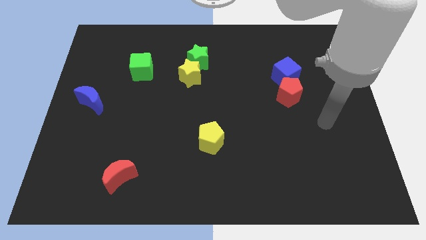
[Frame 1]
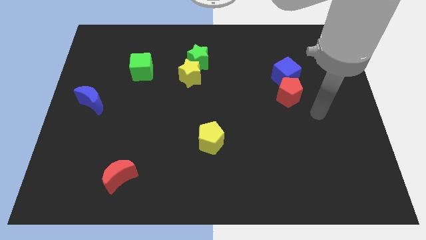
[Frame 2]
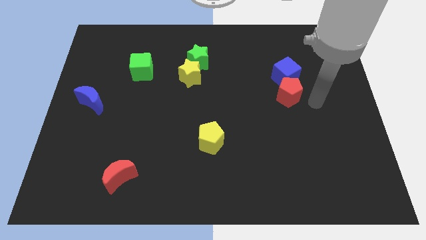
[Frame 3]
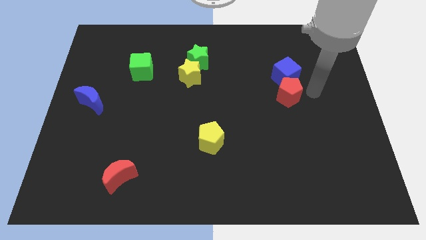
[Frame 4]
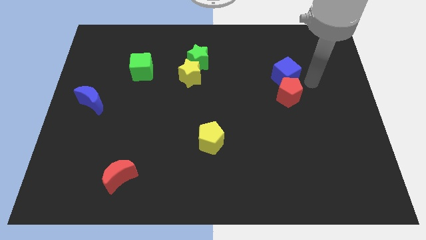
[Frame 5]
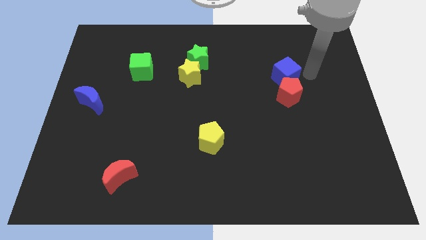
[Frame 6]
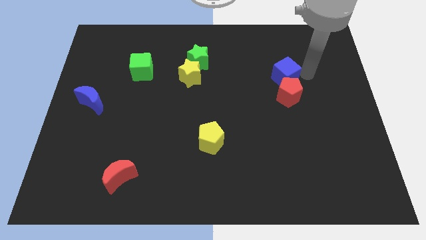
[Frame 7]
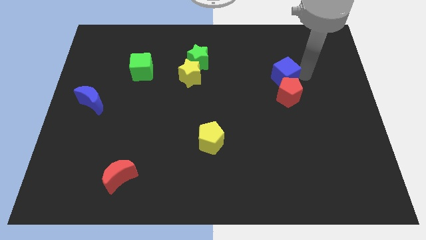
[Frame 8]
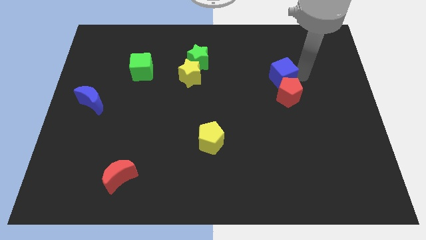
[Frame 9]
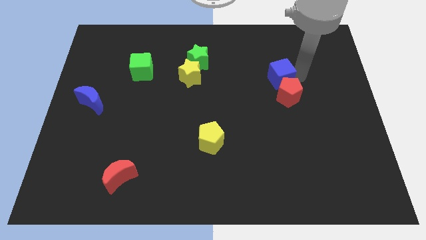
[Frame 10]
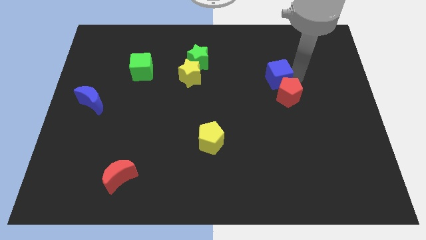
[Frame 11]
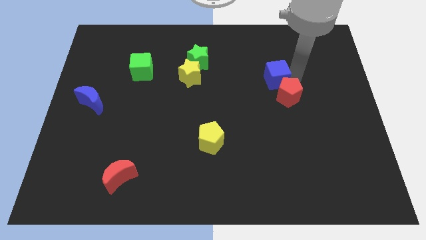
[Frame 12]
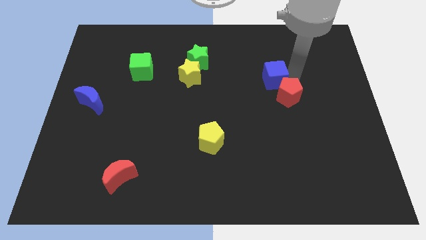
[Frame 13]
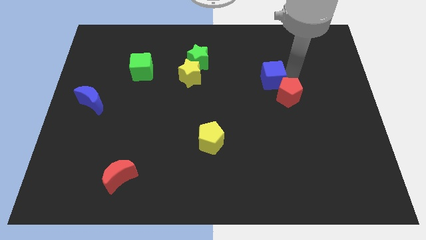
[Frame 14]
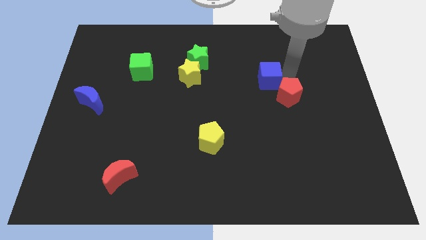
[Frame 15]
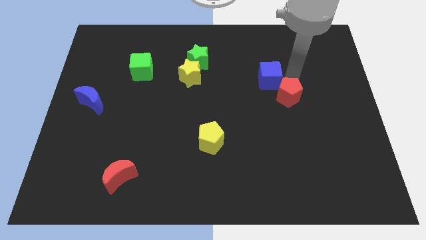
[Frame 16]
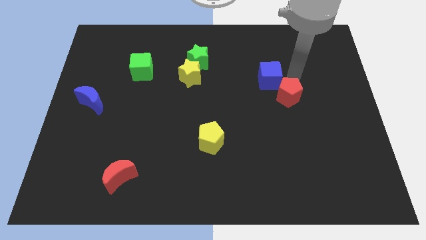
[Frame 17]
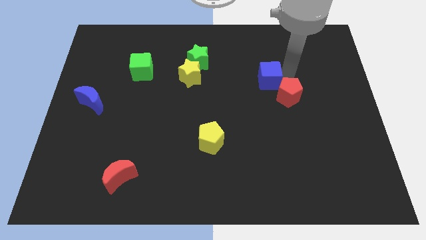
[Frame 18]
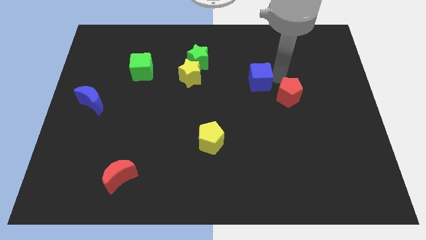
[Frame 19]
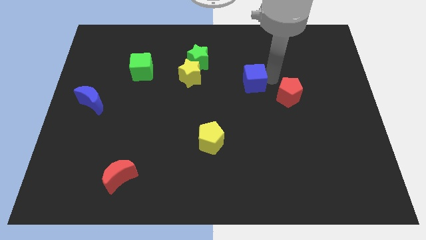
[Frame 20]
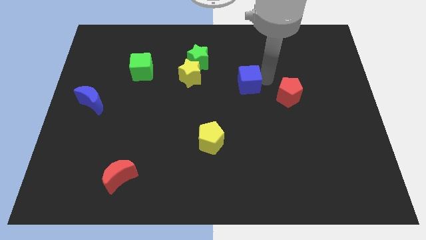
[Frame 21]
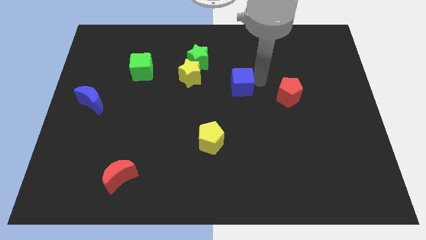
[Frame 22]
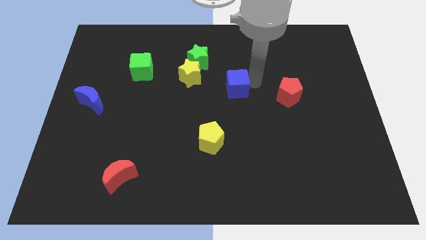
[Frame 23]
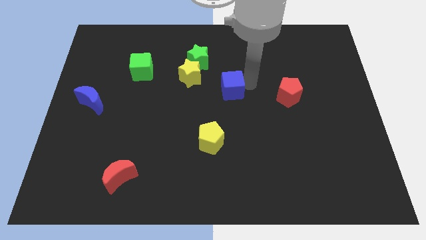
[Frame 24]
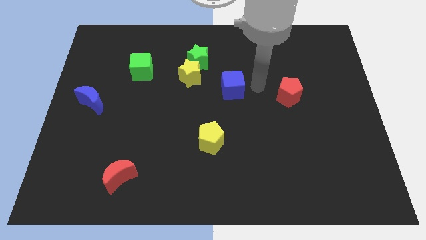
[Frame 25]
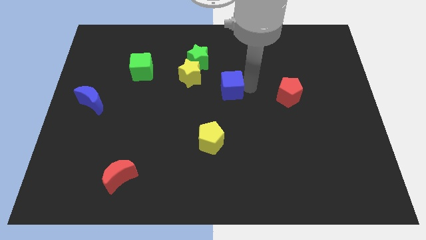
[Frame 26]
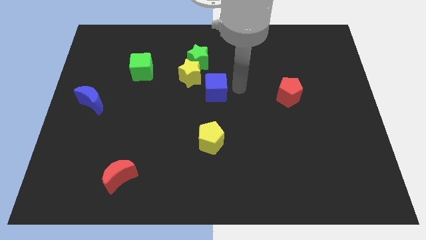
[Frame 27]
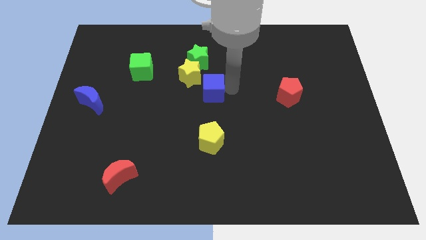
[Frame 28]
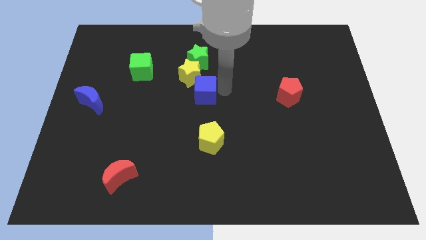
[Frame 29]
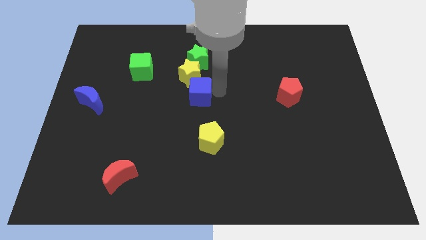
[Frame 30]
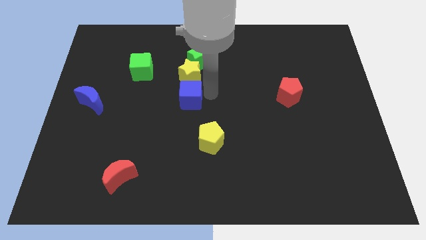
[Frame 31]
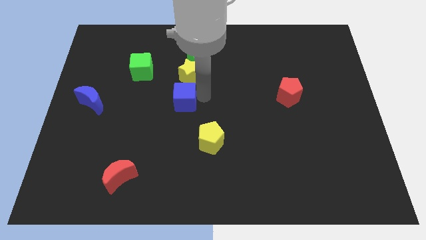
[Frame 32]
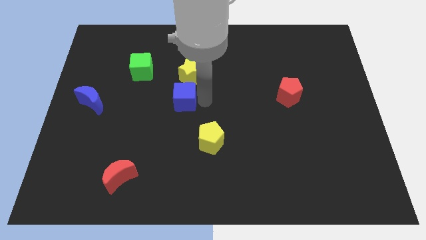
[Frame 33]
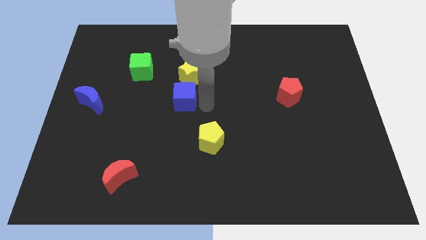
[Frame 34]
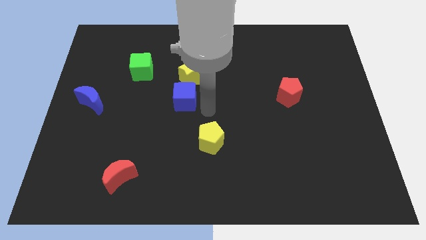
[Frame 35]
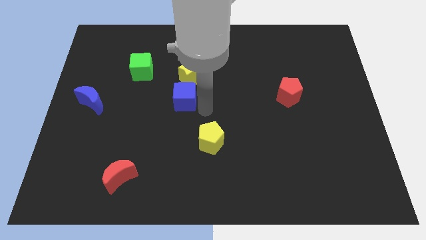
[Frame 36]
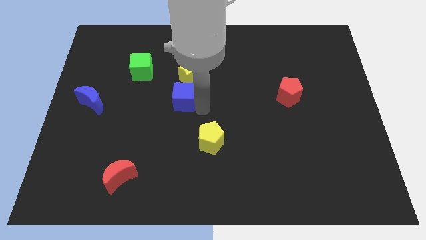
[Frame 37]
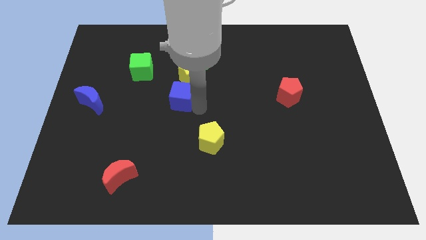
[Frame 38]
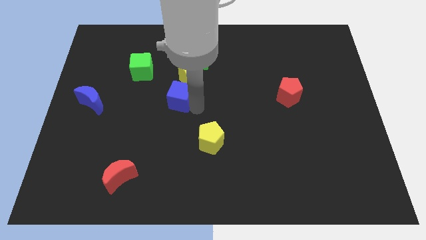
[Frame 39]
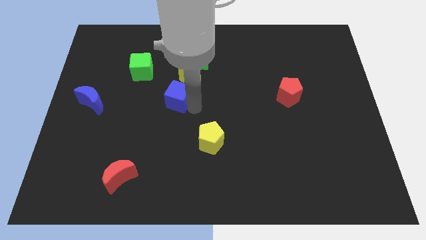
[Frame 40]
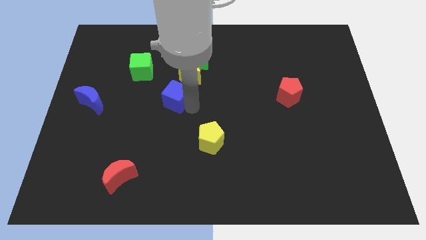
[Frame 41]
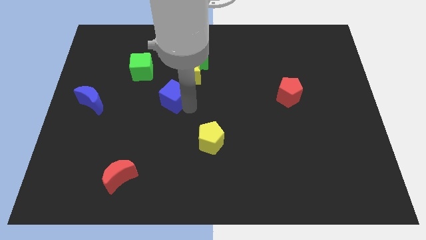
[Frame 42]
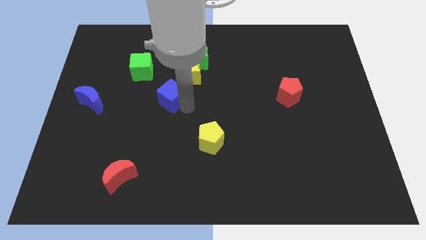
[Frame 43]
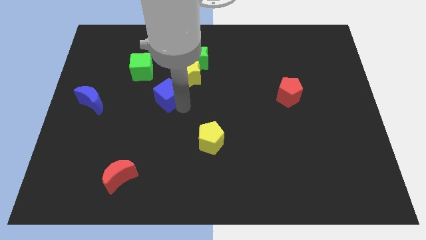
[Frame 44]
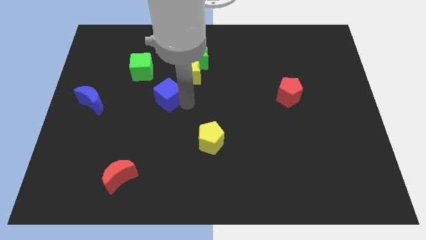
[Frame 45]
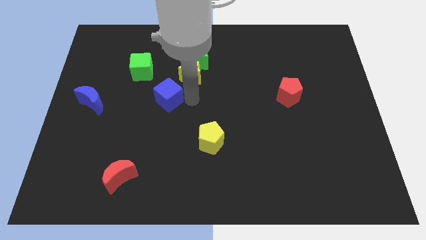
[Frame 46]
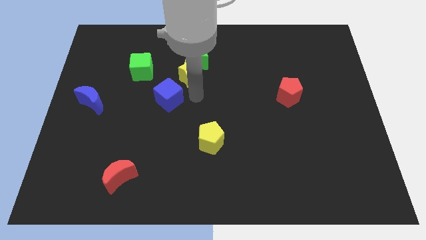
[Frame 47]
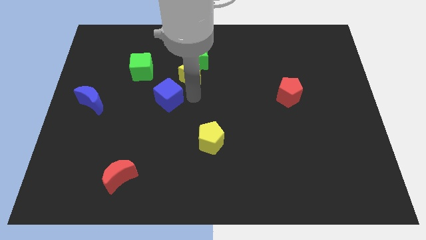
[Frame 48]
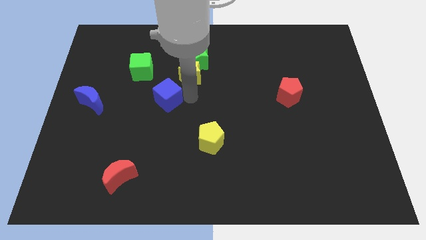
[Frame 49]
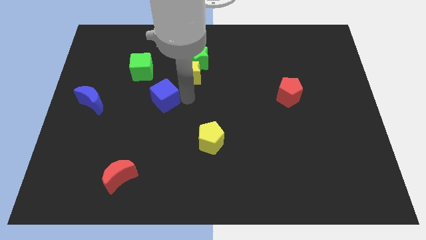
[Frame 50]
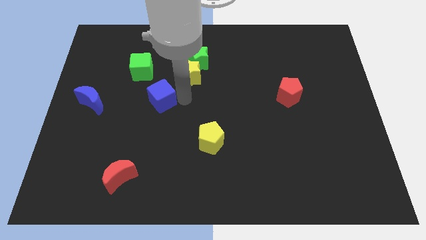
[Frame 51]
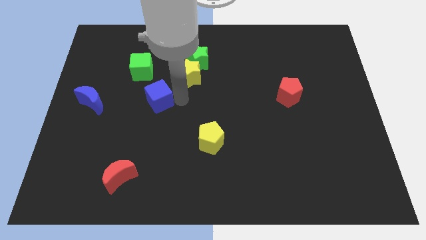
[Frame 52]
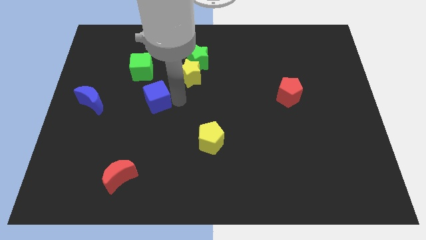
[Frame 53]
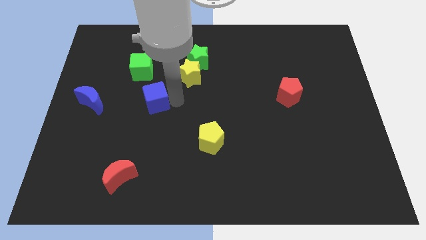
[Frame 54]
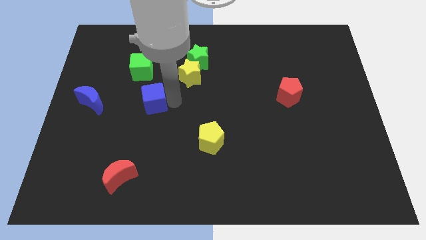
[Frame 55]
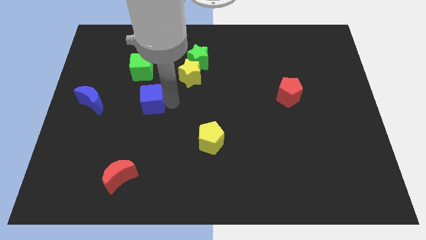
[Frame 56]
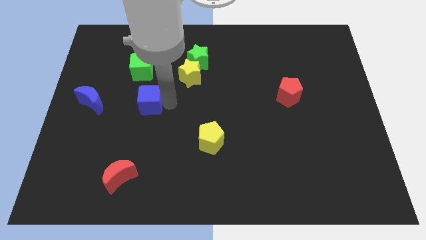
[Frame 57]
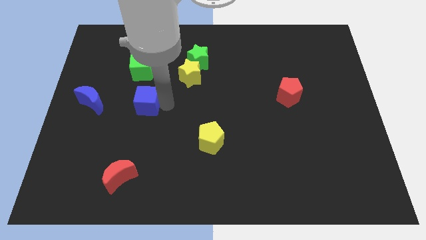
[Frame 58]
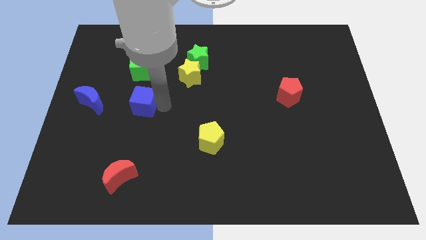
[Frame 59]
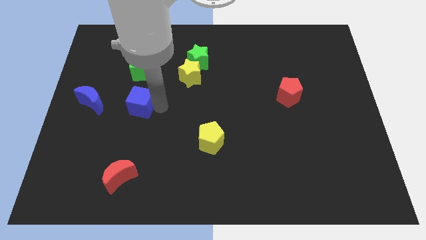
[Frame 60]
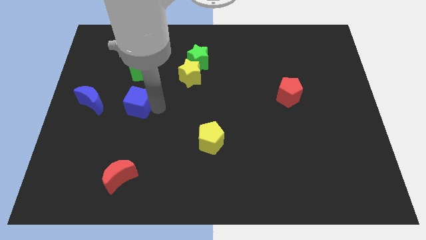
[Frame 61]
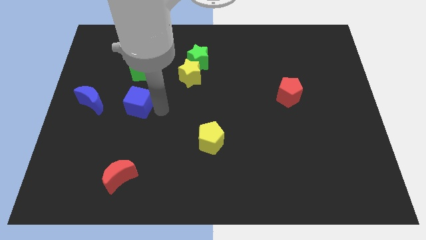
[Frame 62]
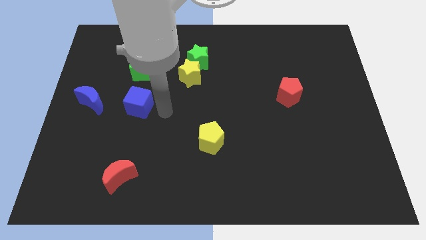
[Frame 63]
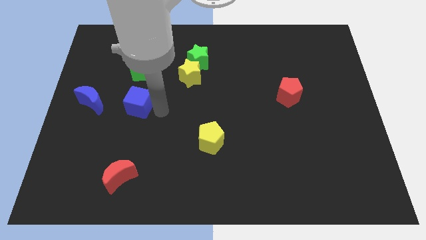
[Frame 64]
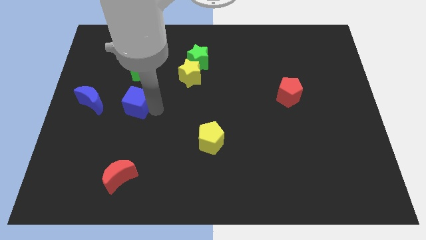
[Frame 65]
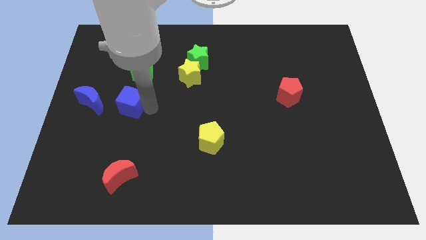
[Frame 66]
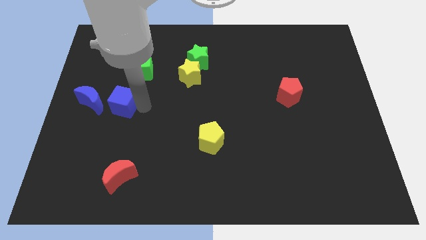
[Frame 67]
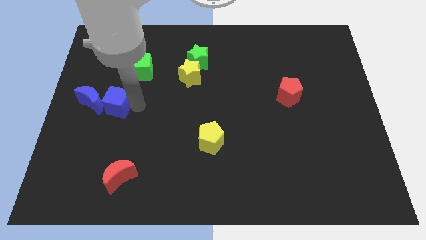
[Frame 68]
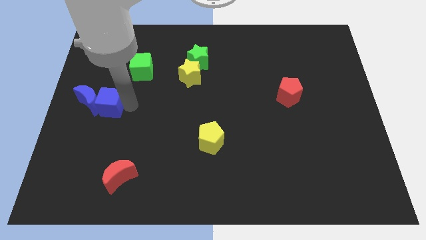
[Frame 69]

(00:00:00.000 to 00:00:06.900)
put the blue cube to the blue moon

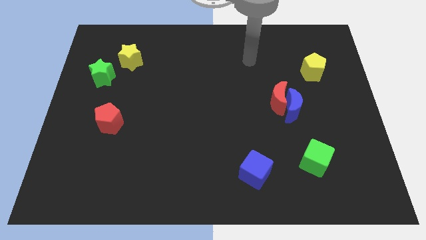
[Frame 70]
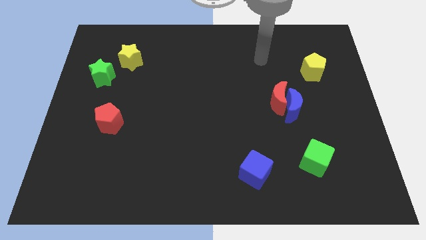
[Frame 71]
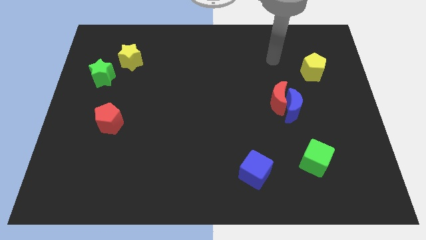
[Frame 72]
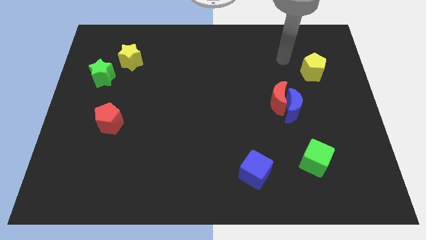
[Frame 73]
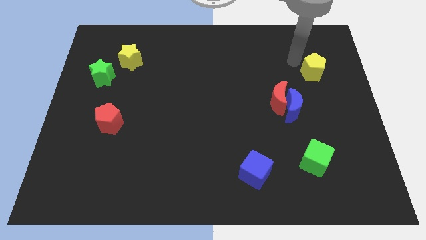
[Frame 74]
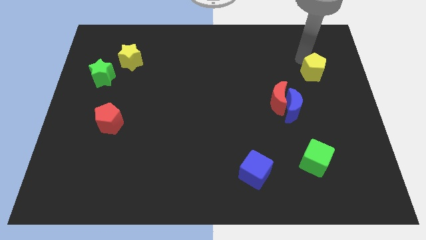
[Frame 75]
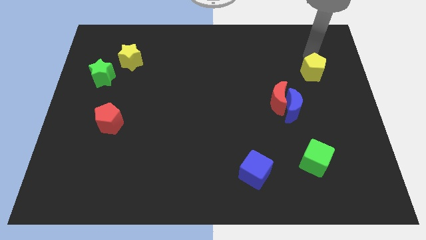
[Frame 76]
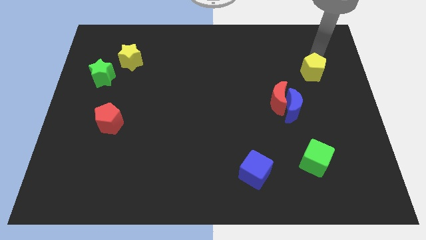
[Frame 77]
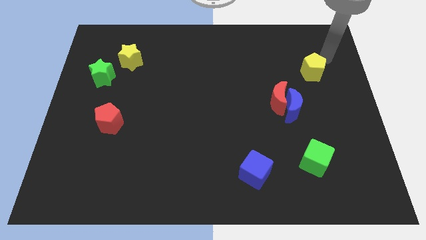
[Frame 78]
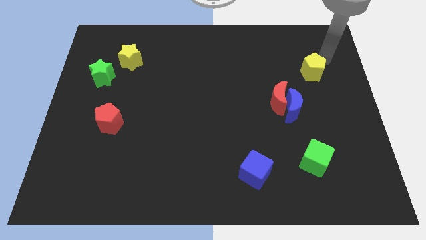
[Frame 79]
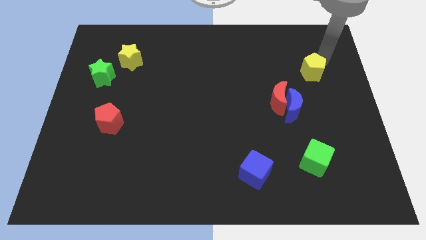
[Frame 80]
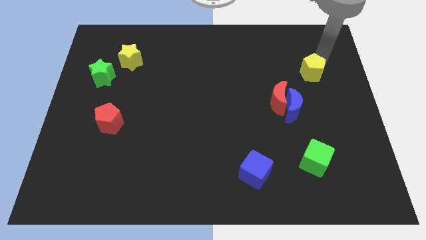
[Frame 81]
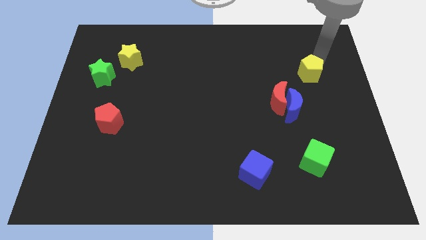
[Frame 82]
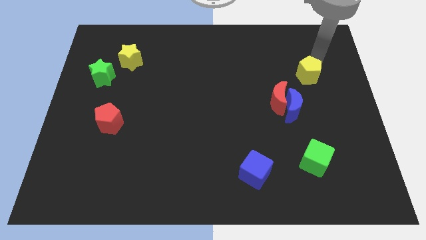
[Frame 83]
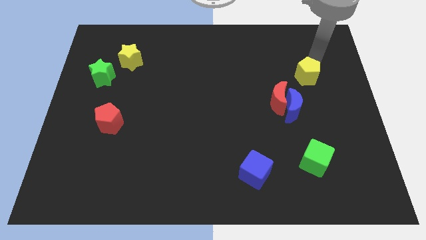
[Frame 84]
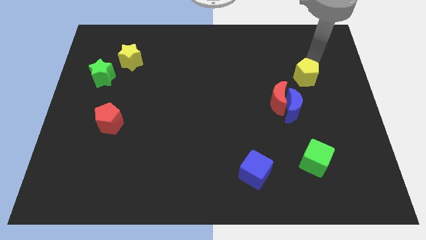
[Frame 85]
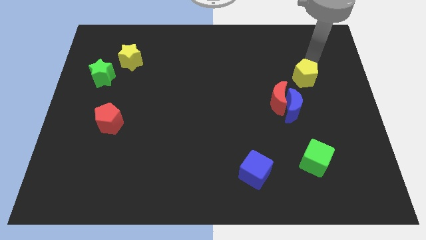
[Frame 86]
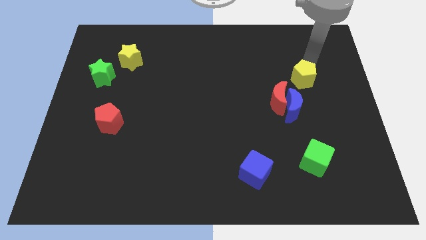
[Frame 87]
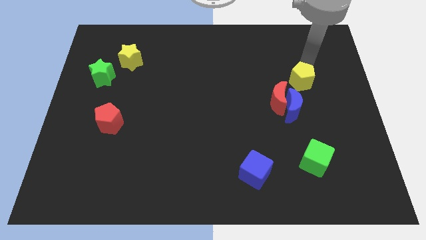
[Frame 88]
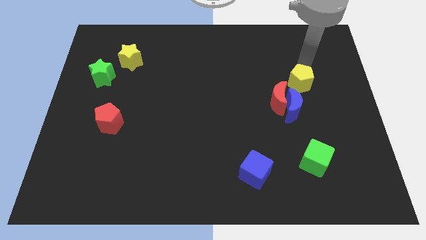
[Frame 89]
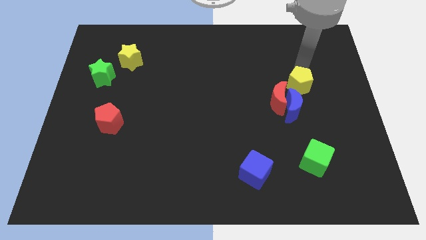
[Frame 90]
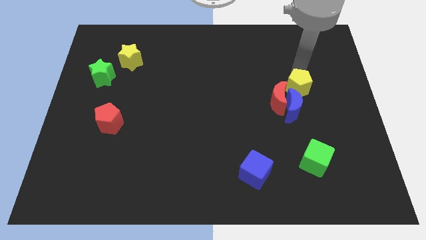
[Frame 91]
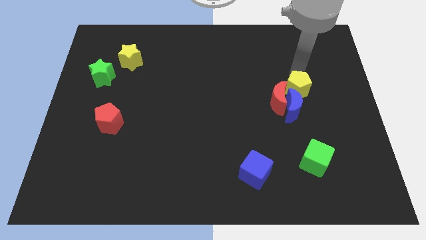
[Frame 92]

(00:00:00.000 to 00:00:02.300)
put the yellow pentagon next to the red moon
